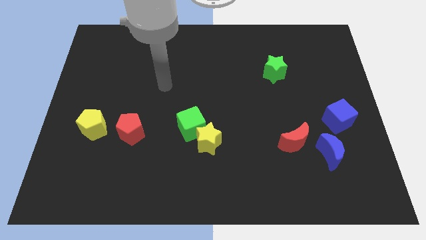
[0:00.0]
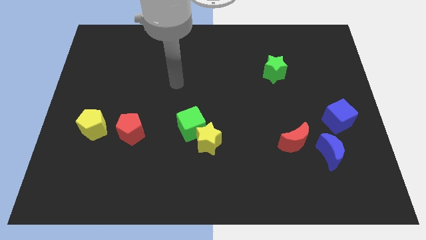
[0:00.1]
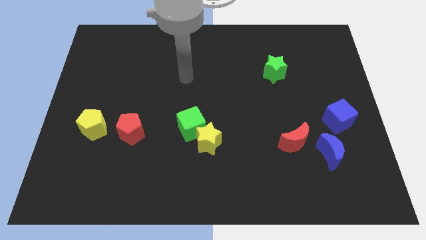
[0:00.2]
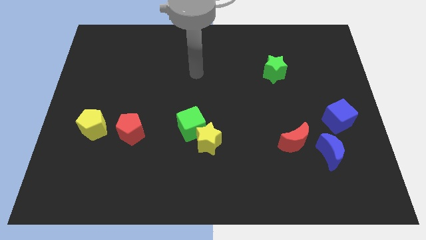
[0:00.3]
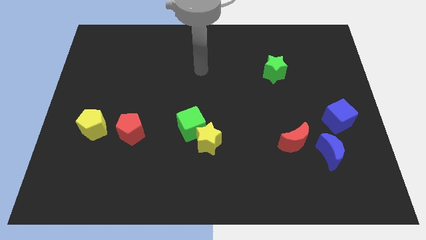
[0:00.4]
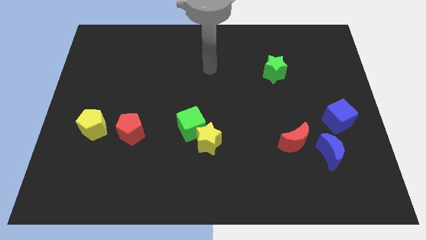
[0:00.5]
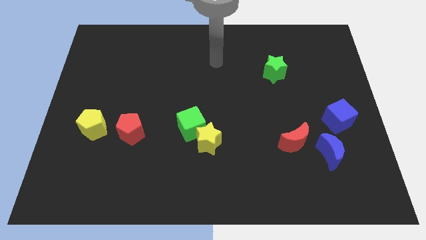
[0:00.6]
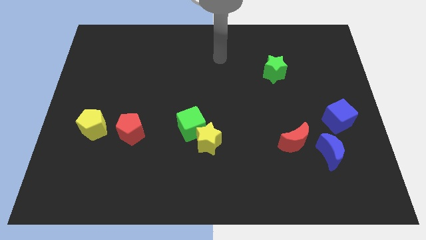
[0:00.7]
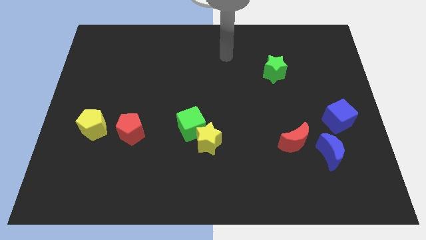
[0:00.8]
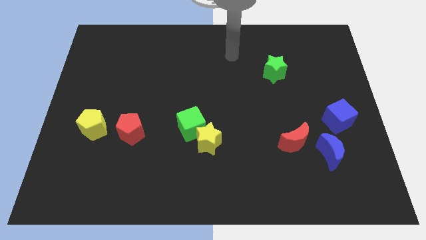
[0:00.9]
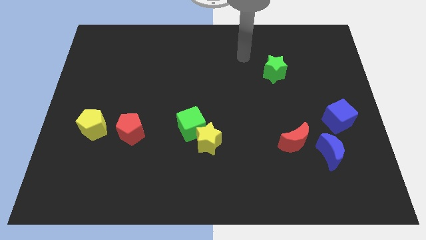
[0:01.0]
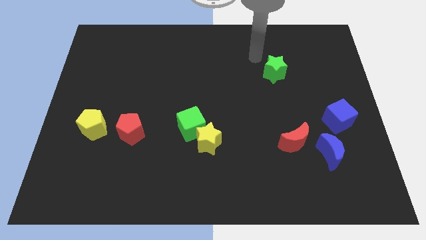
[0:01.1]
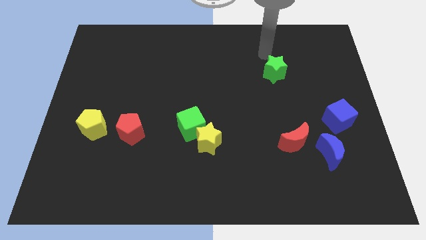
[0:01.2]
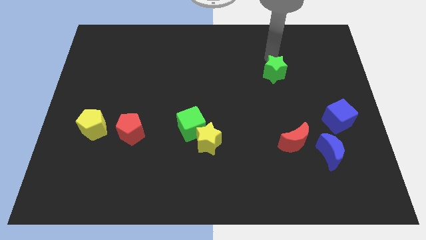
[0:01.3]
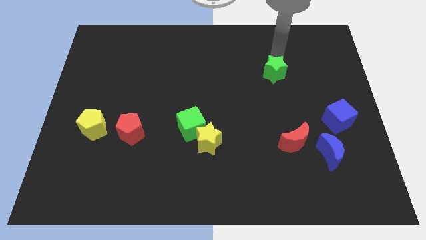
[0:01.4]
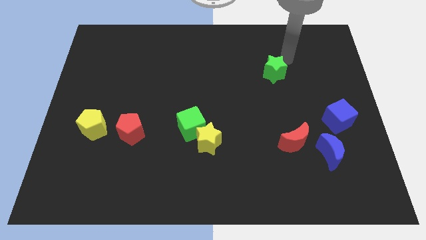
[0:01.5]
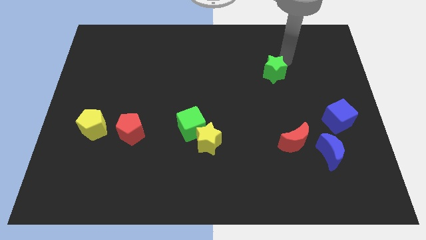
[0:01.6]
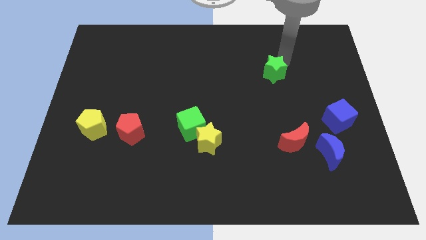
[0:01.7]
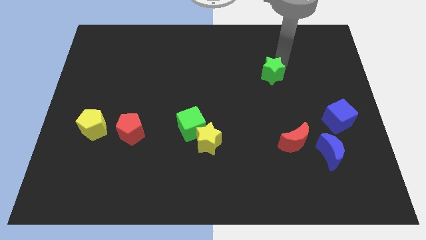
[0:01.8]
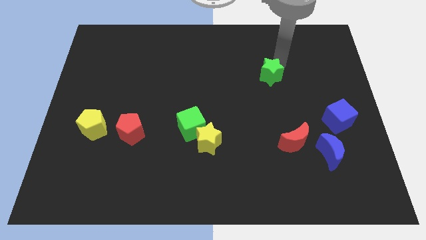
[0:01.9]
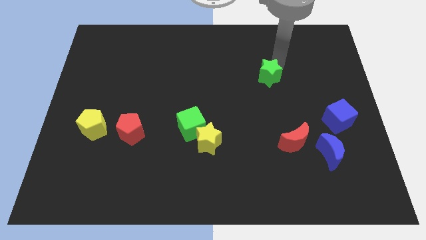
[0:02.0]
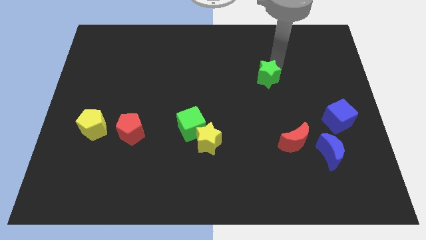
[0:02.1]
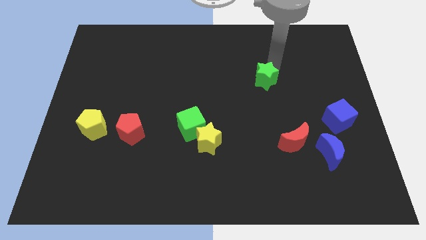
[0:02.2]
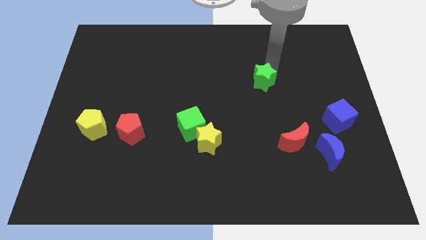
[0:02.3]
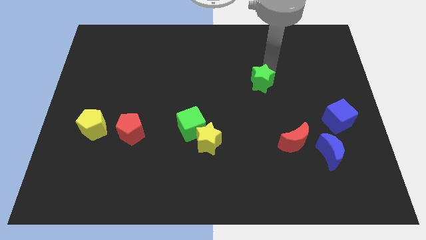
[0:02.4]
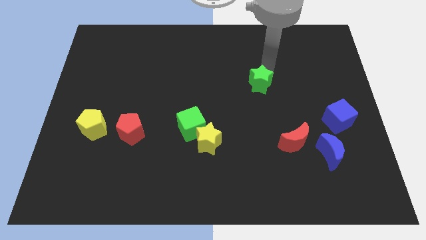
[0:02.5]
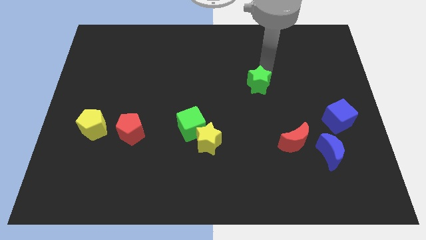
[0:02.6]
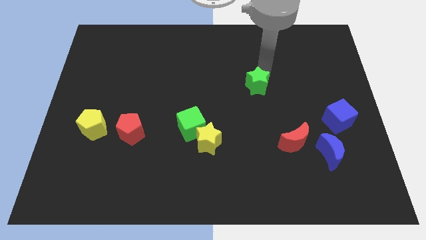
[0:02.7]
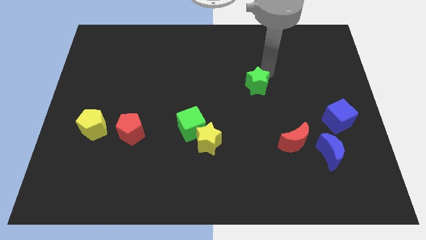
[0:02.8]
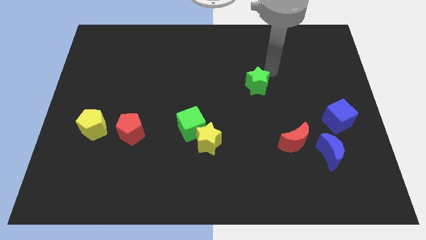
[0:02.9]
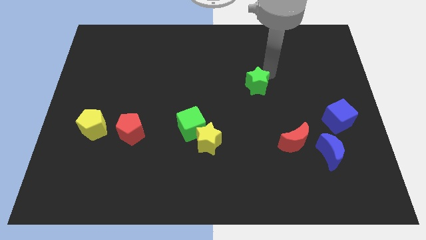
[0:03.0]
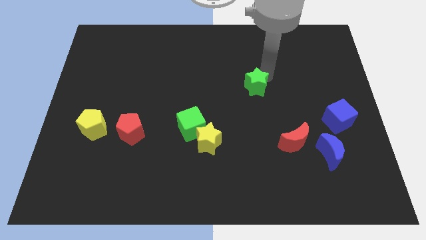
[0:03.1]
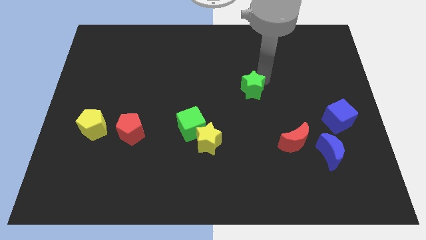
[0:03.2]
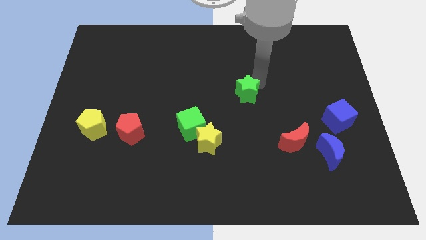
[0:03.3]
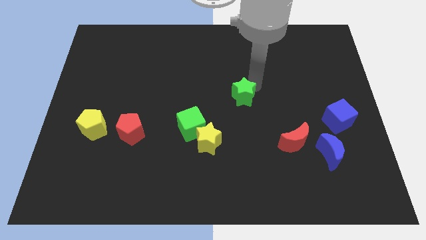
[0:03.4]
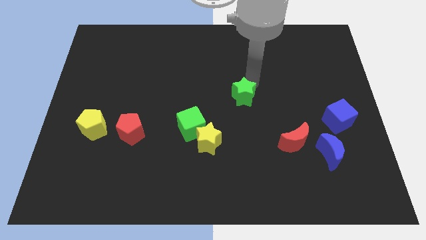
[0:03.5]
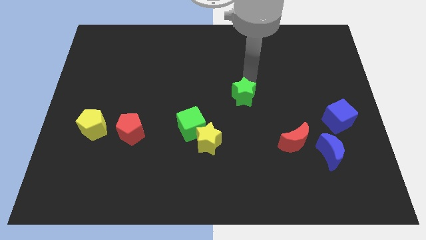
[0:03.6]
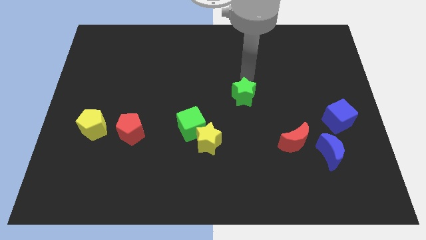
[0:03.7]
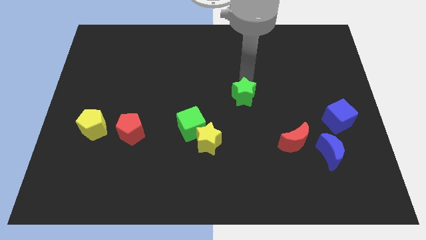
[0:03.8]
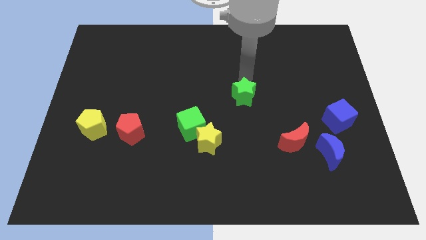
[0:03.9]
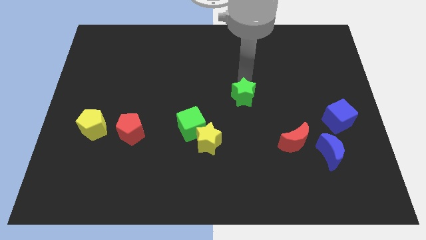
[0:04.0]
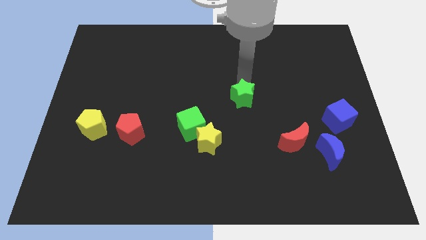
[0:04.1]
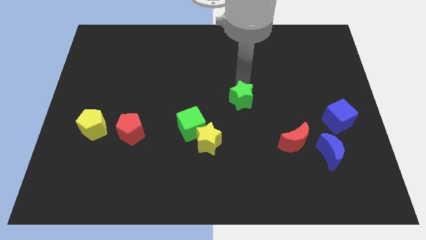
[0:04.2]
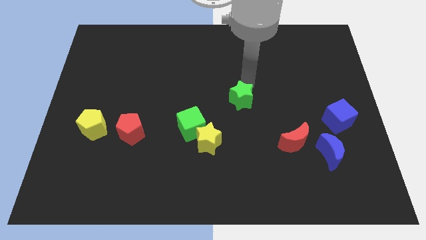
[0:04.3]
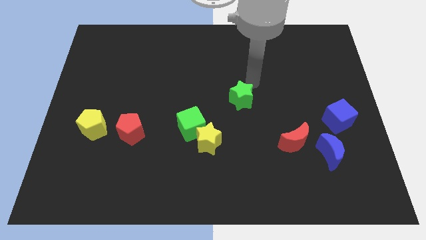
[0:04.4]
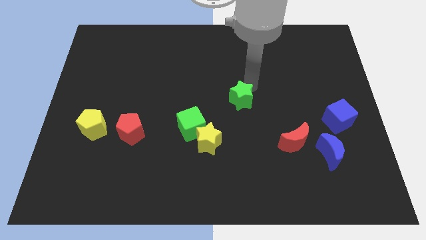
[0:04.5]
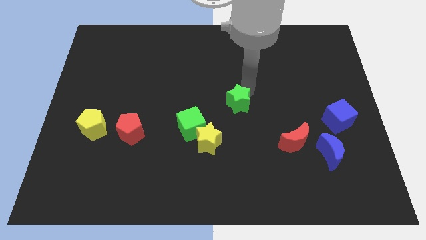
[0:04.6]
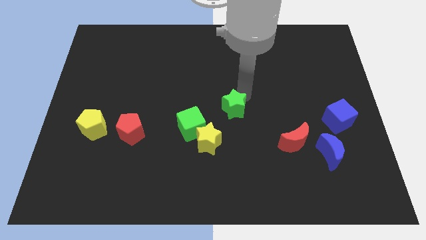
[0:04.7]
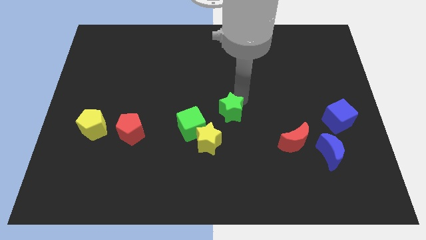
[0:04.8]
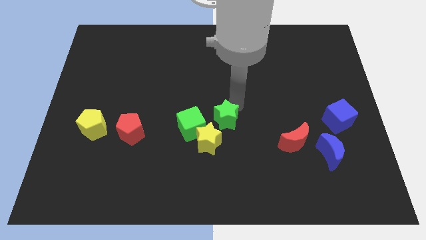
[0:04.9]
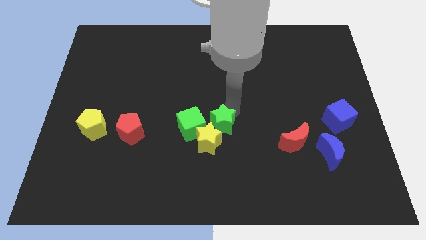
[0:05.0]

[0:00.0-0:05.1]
push the green star close to the yellow star

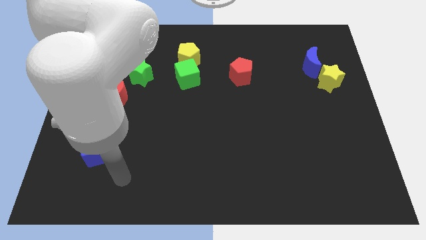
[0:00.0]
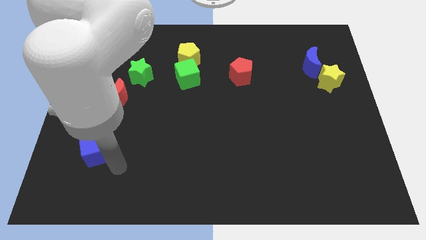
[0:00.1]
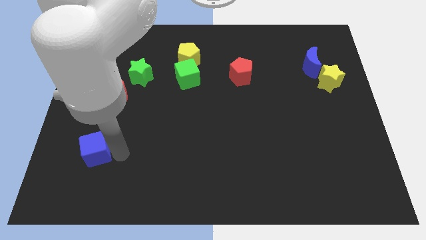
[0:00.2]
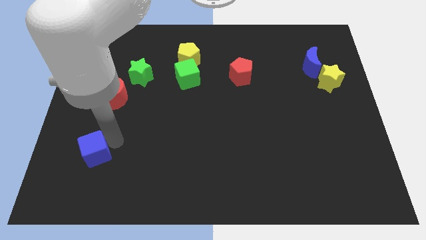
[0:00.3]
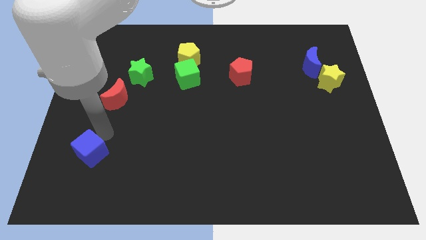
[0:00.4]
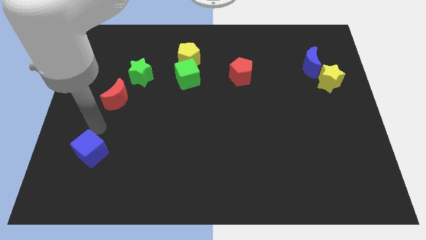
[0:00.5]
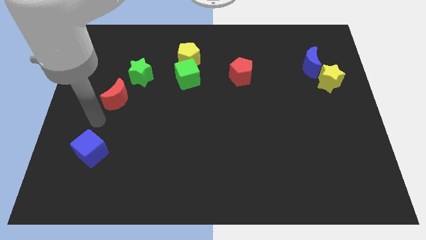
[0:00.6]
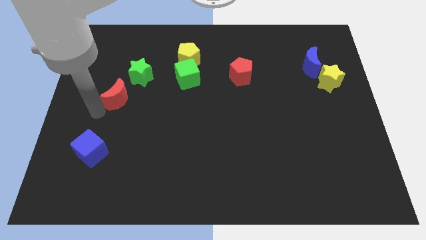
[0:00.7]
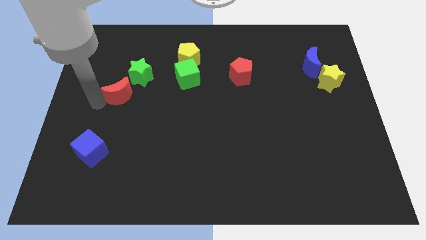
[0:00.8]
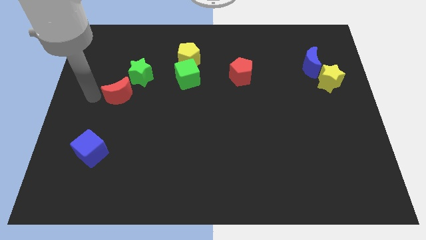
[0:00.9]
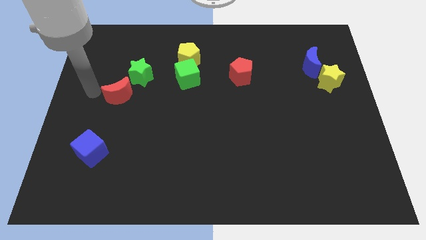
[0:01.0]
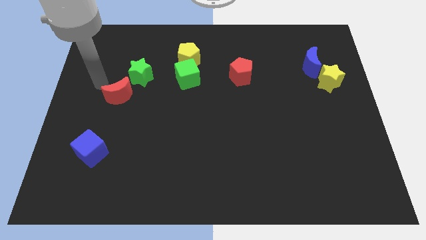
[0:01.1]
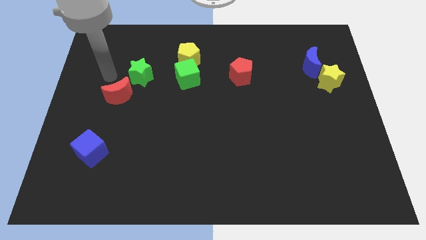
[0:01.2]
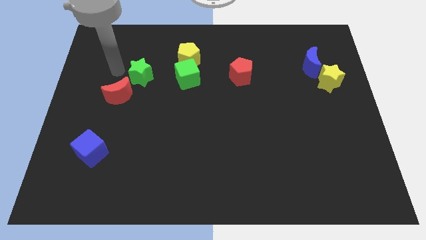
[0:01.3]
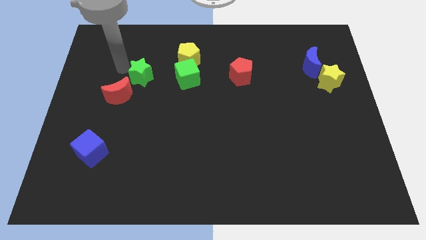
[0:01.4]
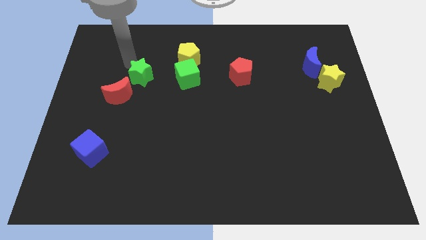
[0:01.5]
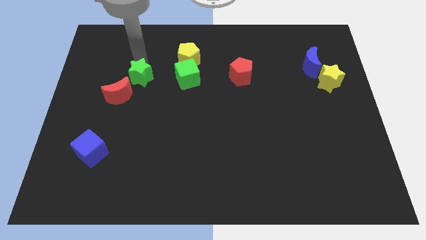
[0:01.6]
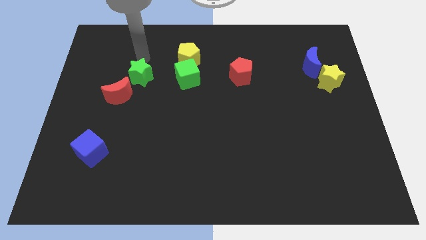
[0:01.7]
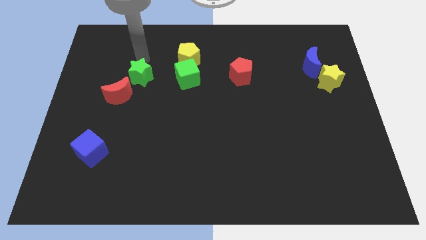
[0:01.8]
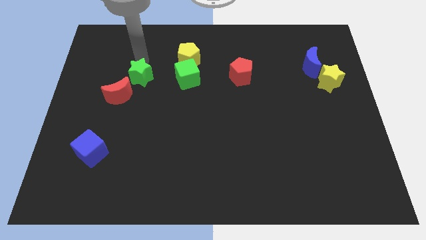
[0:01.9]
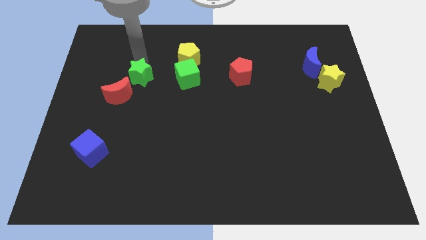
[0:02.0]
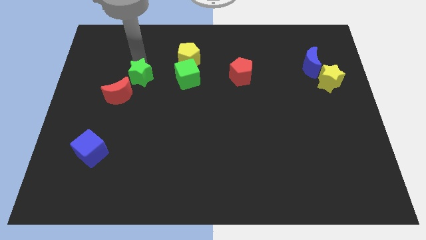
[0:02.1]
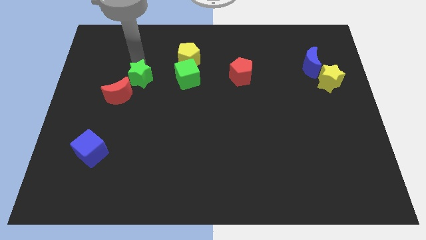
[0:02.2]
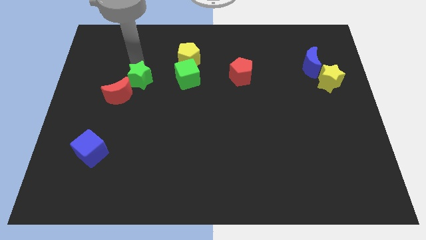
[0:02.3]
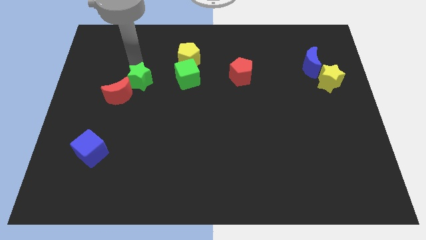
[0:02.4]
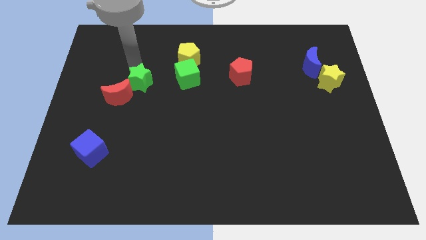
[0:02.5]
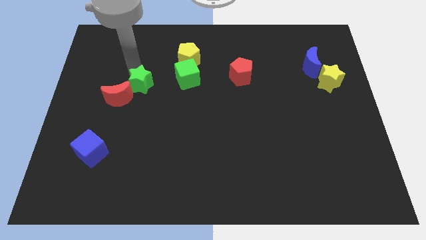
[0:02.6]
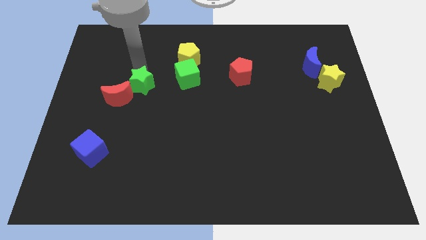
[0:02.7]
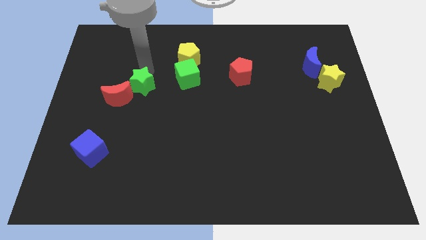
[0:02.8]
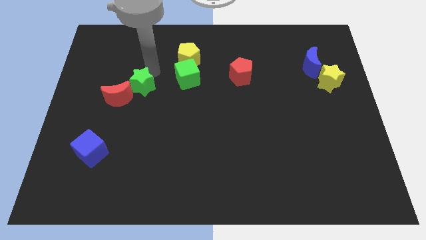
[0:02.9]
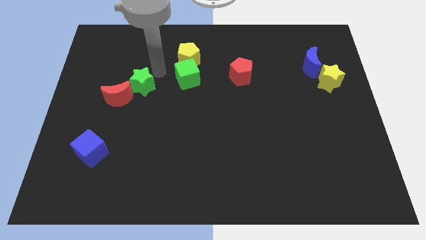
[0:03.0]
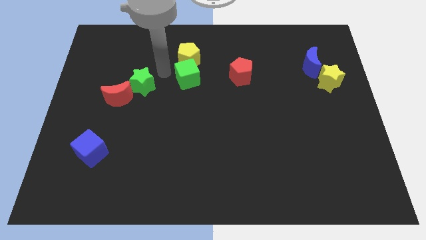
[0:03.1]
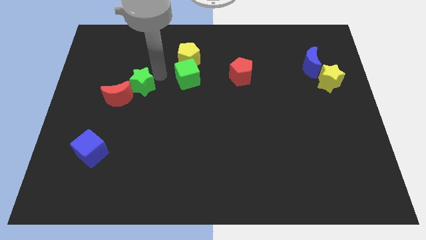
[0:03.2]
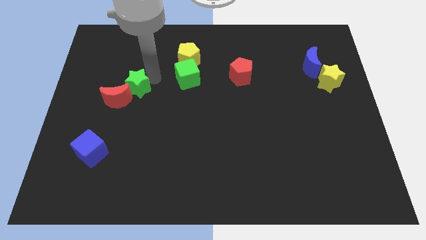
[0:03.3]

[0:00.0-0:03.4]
put the green star next to the red moon
